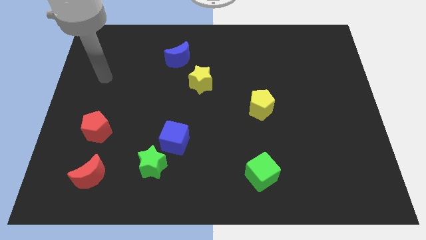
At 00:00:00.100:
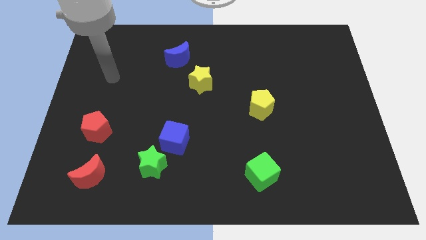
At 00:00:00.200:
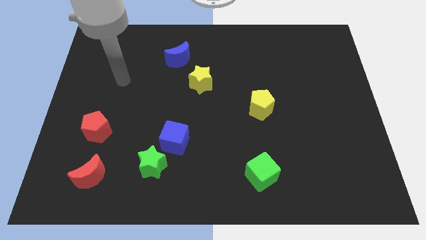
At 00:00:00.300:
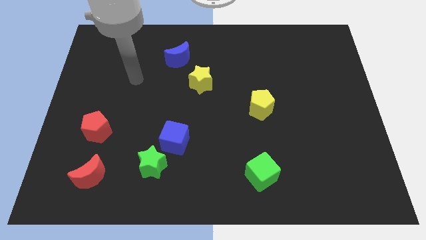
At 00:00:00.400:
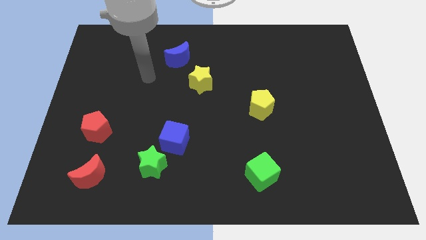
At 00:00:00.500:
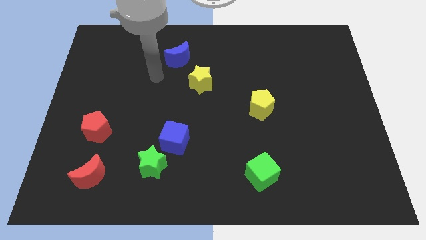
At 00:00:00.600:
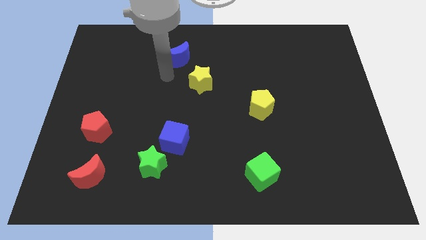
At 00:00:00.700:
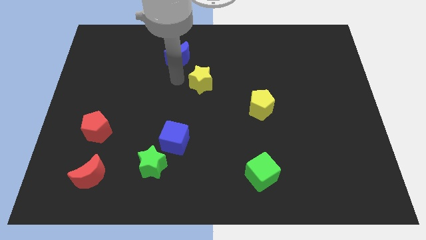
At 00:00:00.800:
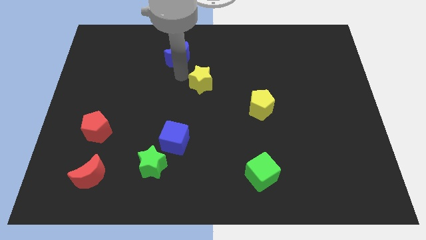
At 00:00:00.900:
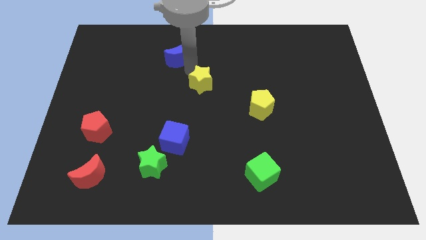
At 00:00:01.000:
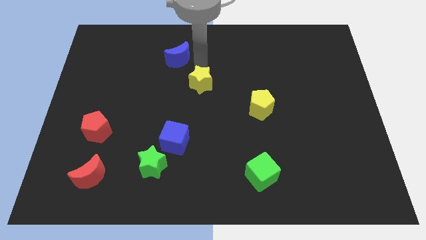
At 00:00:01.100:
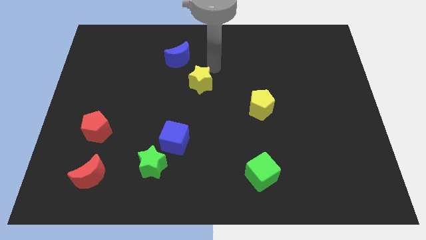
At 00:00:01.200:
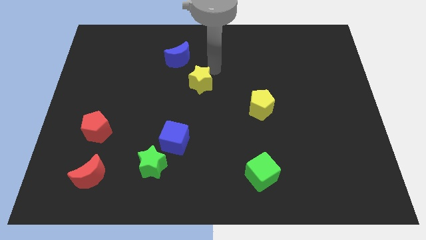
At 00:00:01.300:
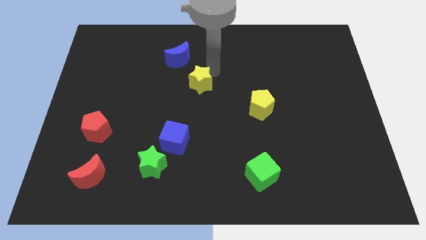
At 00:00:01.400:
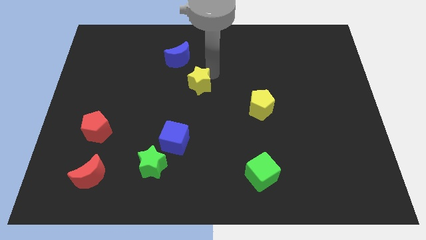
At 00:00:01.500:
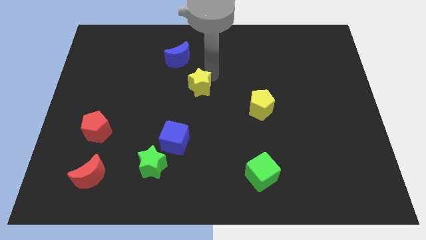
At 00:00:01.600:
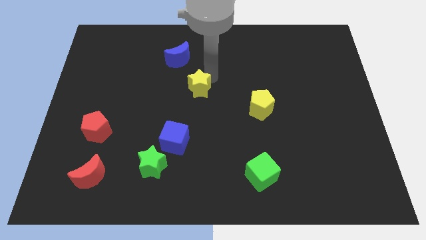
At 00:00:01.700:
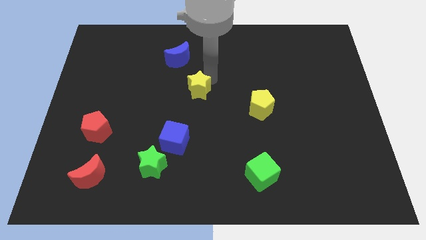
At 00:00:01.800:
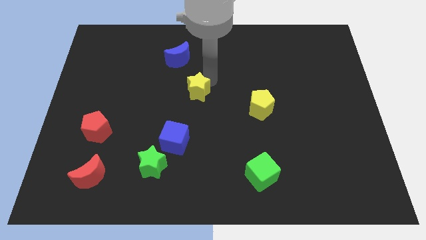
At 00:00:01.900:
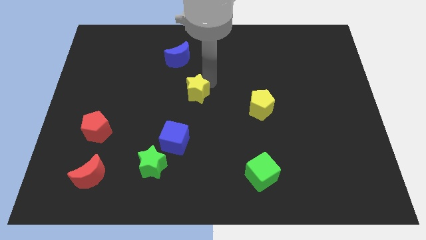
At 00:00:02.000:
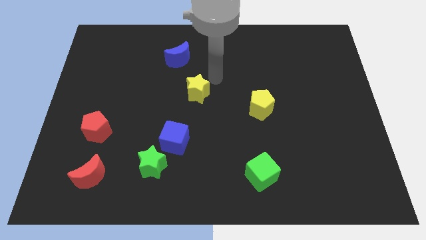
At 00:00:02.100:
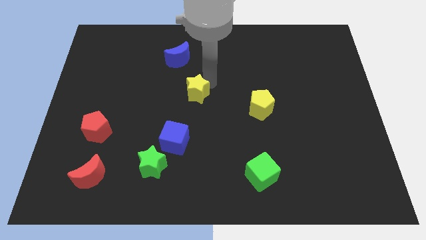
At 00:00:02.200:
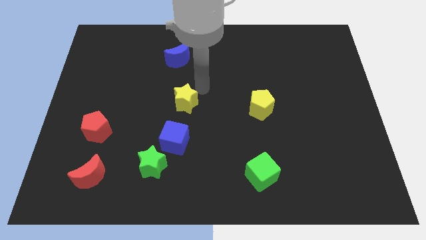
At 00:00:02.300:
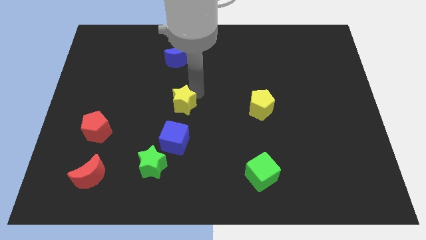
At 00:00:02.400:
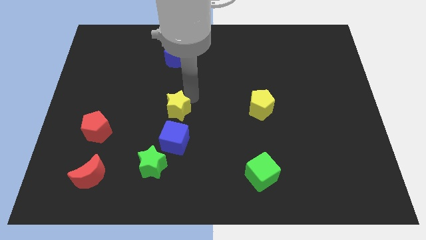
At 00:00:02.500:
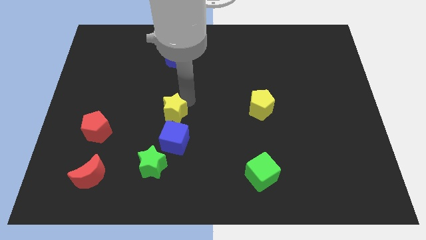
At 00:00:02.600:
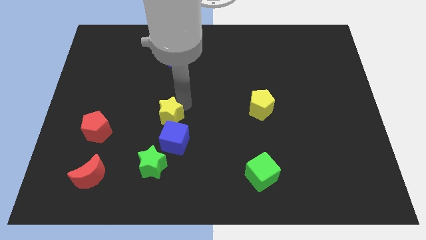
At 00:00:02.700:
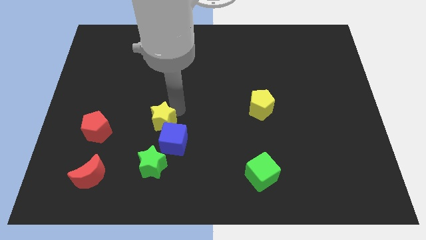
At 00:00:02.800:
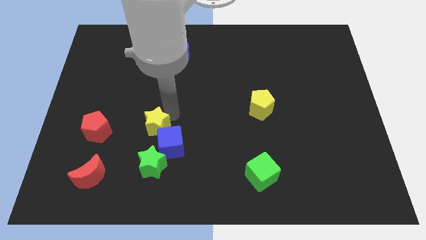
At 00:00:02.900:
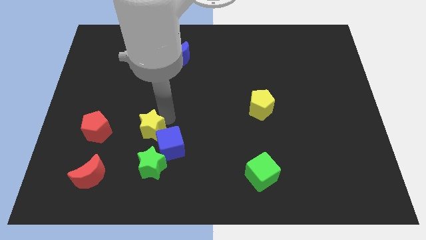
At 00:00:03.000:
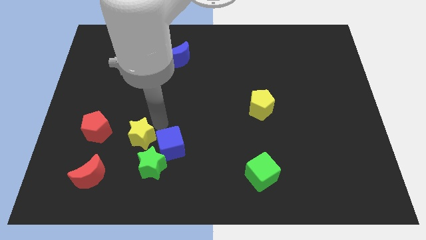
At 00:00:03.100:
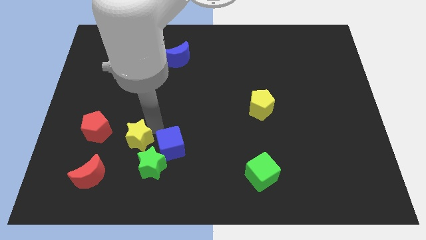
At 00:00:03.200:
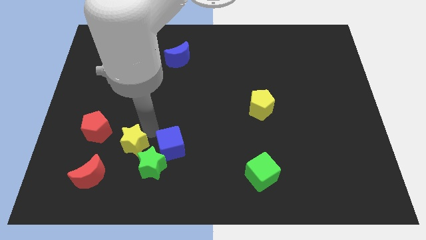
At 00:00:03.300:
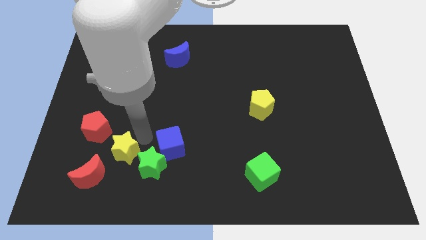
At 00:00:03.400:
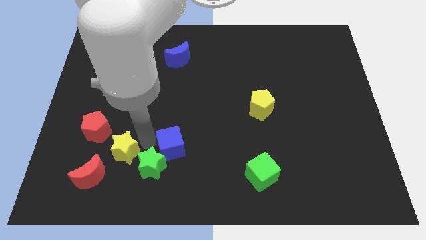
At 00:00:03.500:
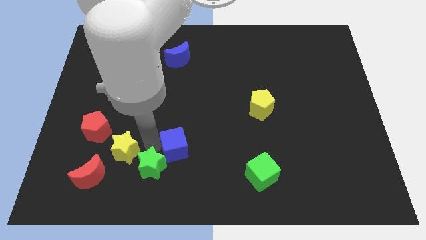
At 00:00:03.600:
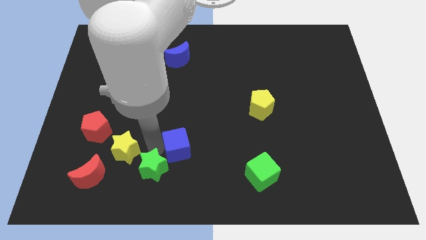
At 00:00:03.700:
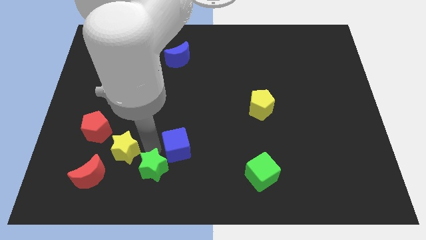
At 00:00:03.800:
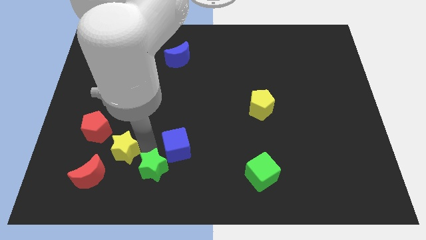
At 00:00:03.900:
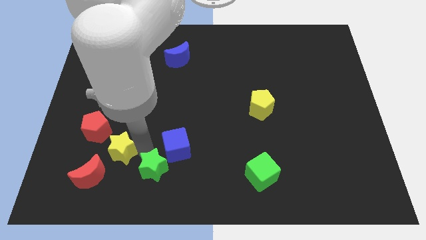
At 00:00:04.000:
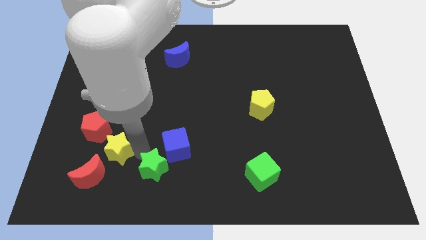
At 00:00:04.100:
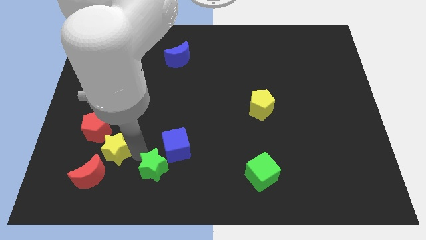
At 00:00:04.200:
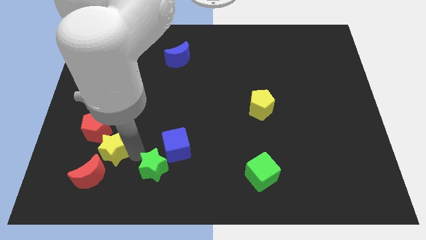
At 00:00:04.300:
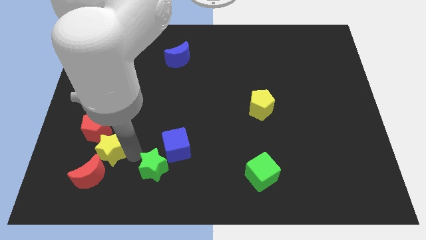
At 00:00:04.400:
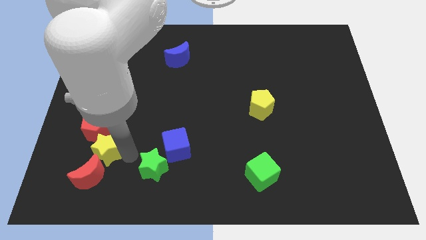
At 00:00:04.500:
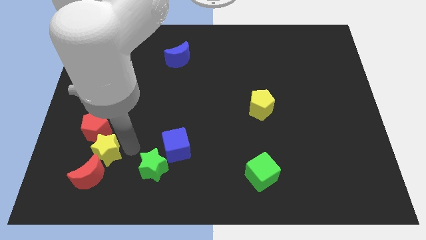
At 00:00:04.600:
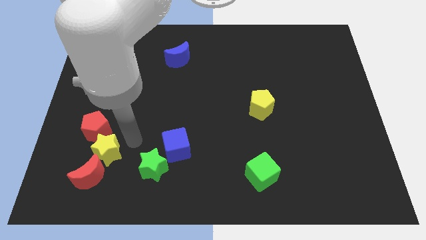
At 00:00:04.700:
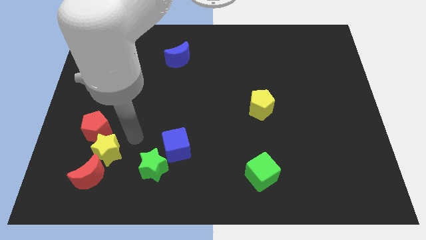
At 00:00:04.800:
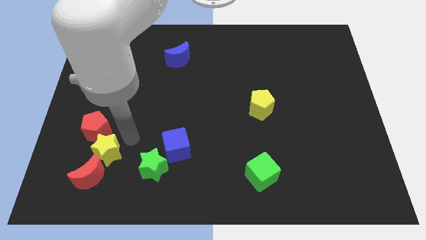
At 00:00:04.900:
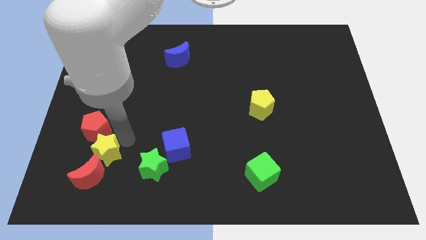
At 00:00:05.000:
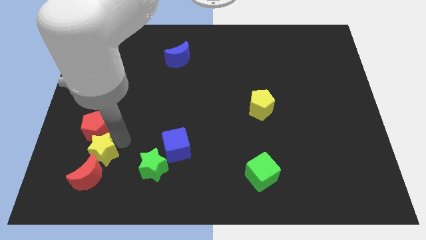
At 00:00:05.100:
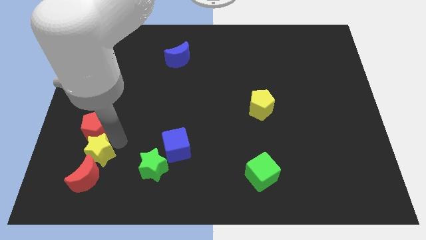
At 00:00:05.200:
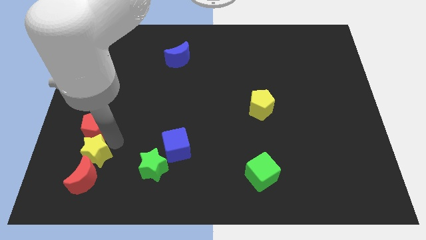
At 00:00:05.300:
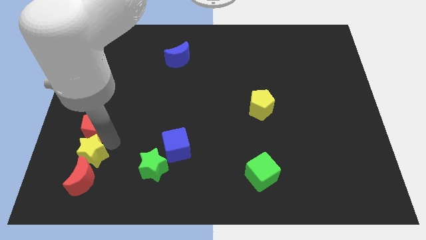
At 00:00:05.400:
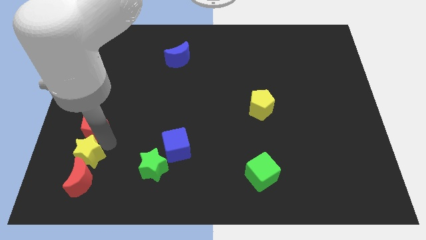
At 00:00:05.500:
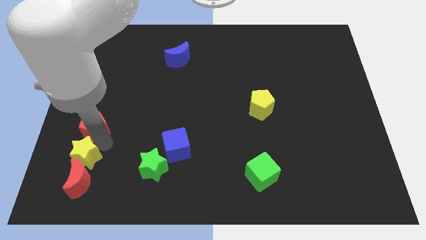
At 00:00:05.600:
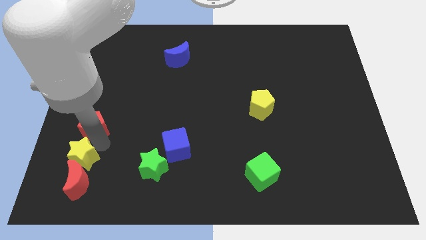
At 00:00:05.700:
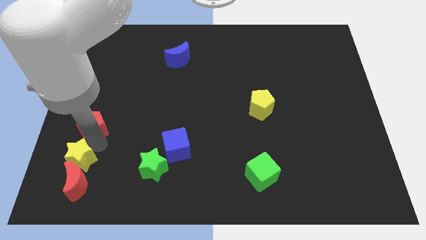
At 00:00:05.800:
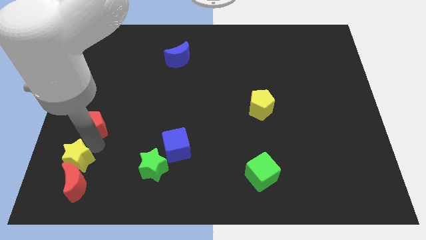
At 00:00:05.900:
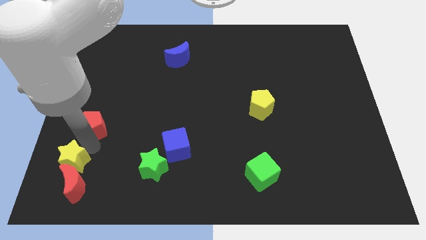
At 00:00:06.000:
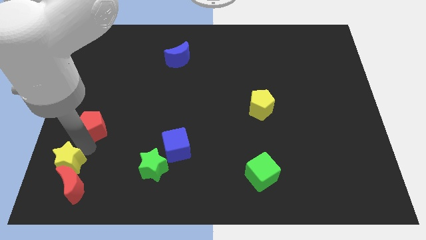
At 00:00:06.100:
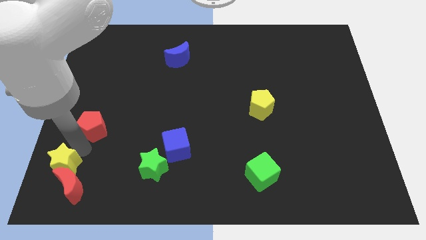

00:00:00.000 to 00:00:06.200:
move the yellow star to the bottom left corner

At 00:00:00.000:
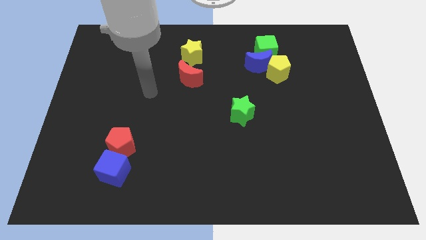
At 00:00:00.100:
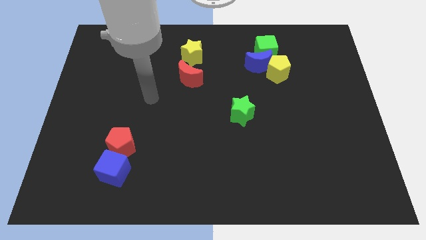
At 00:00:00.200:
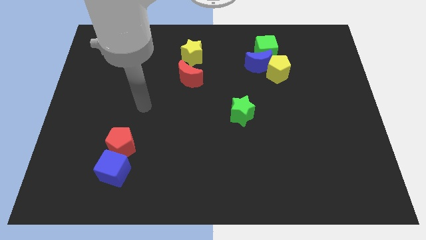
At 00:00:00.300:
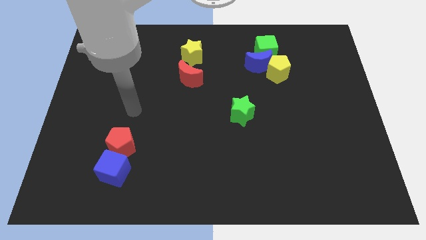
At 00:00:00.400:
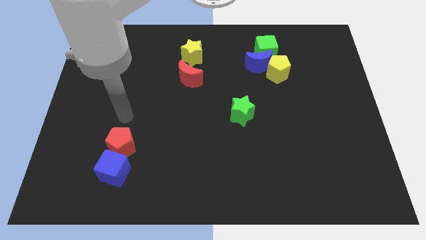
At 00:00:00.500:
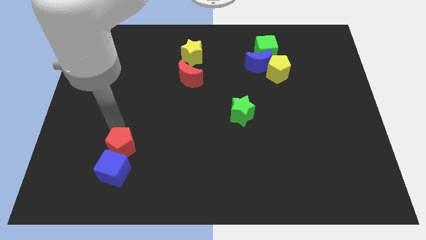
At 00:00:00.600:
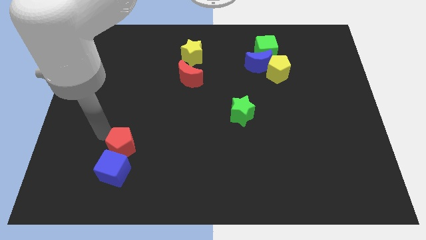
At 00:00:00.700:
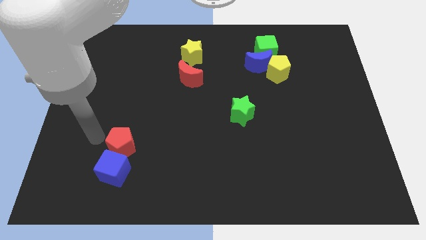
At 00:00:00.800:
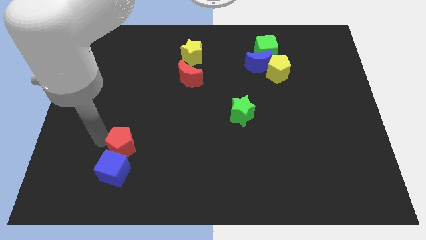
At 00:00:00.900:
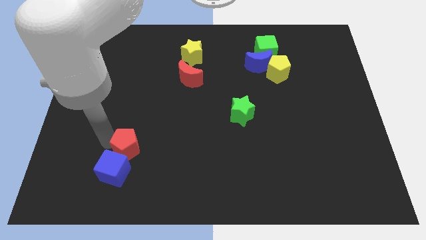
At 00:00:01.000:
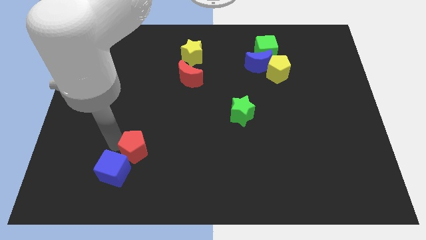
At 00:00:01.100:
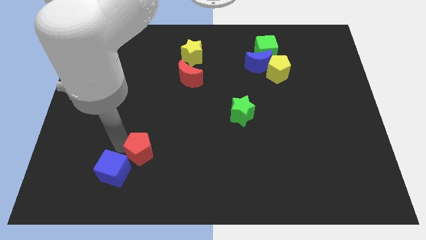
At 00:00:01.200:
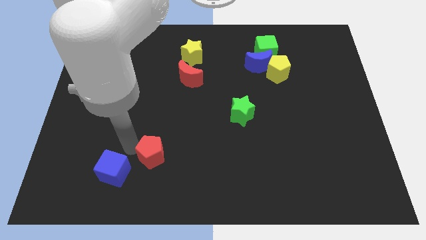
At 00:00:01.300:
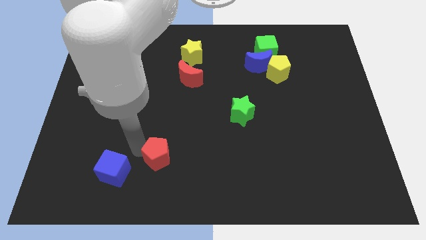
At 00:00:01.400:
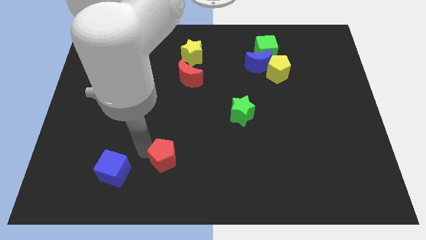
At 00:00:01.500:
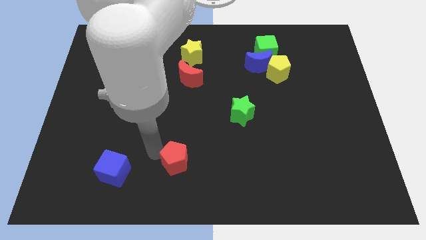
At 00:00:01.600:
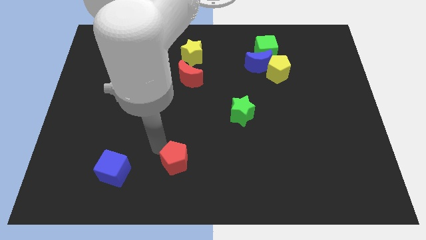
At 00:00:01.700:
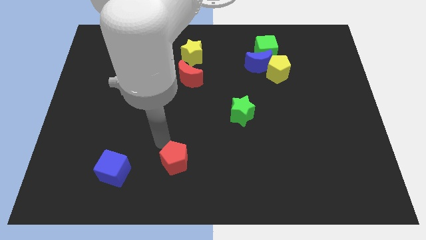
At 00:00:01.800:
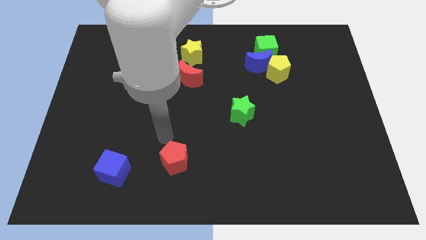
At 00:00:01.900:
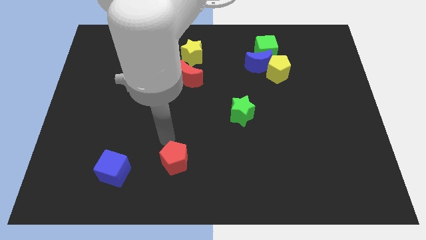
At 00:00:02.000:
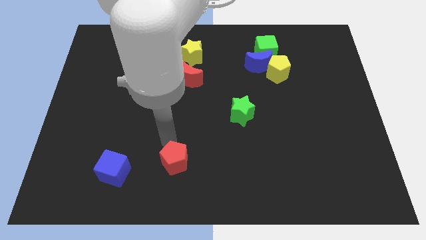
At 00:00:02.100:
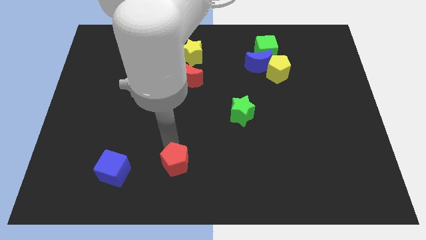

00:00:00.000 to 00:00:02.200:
slide the red pentagon to the bottom
